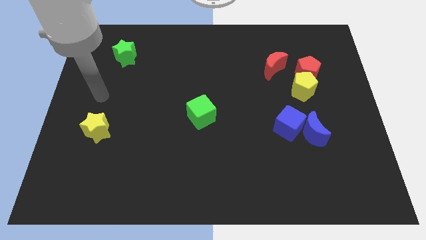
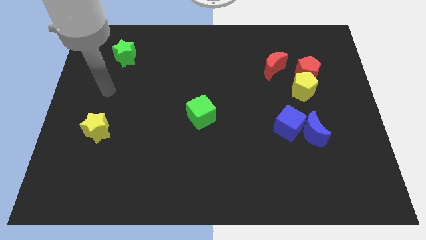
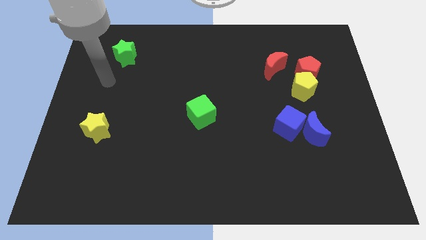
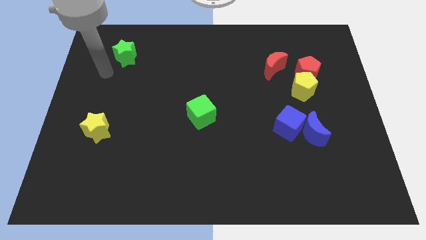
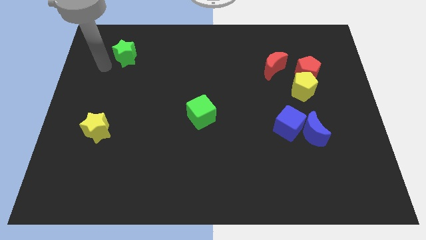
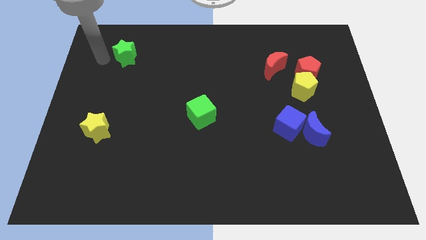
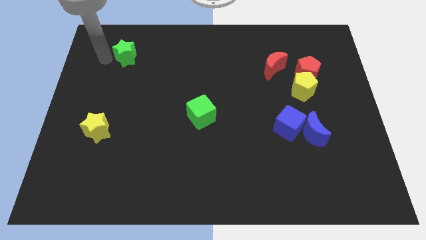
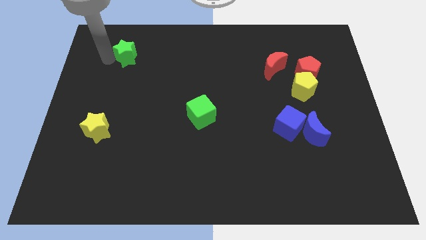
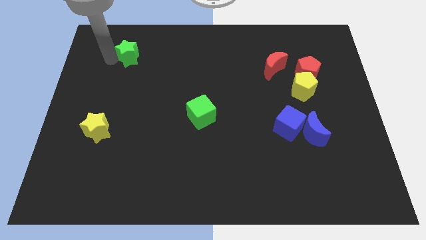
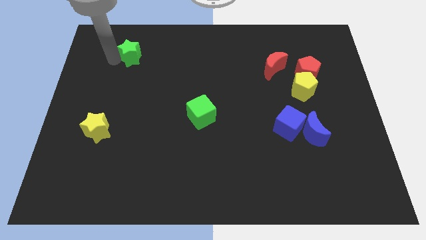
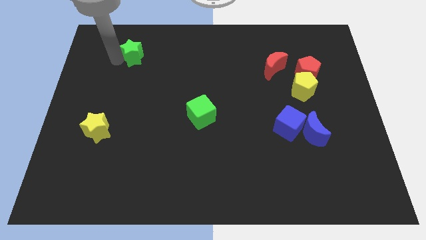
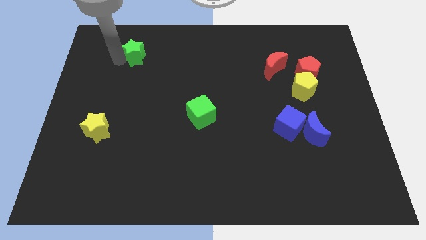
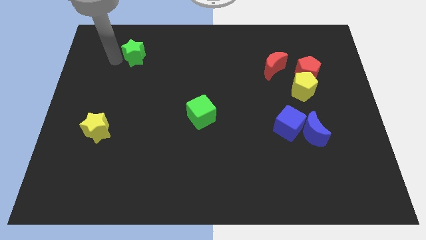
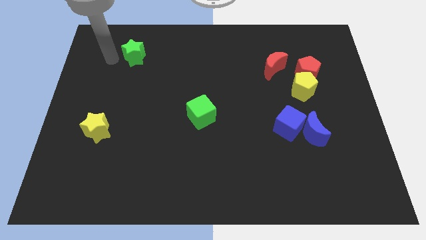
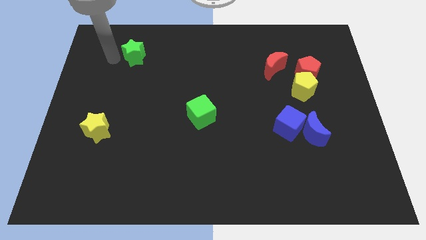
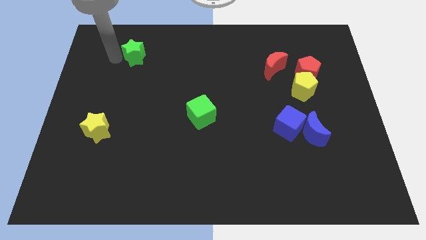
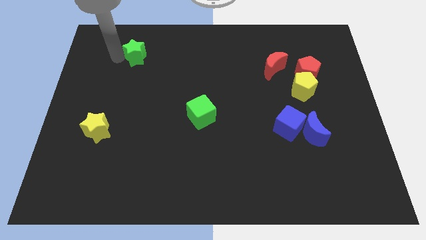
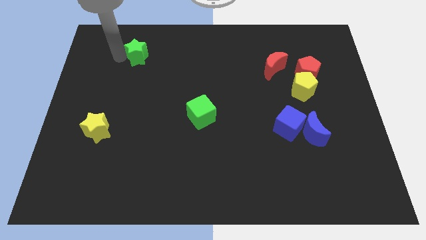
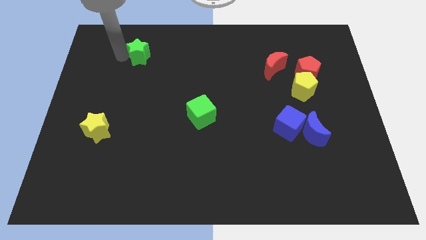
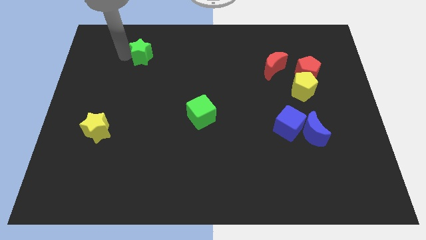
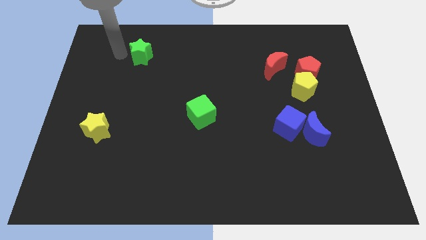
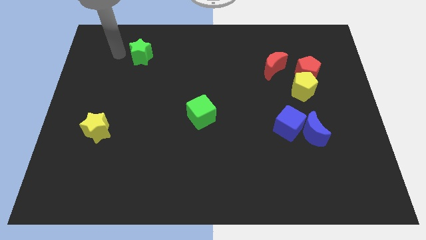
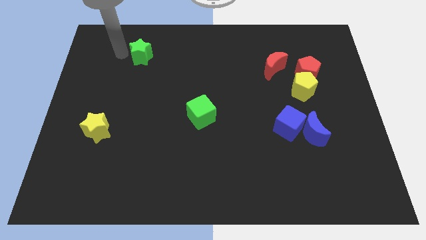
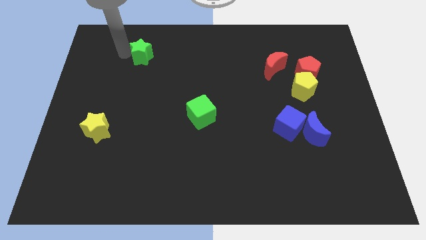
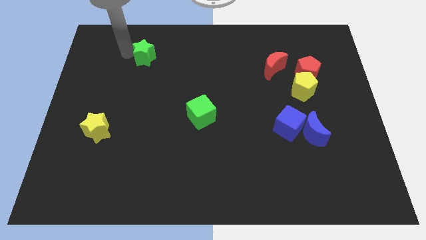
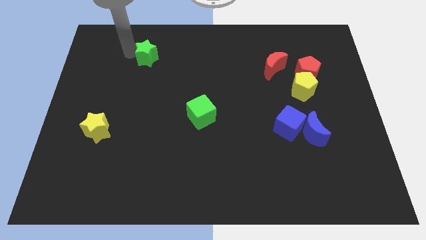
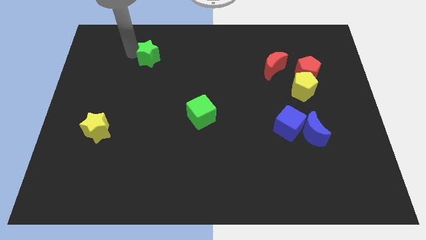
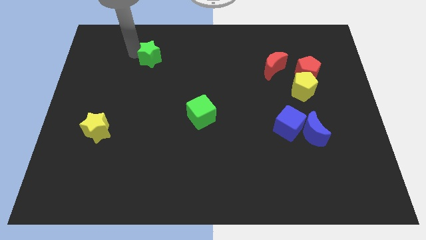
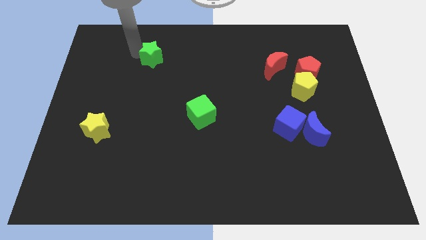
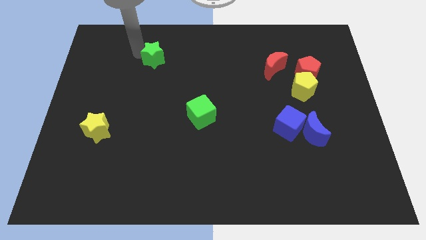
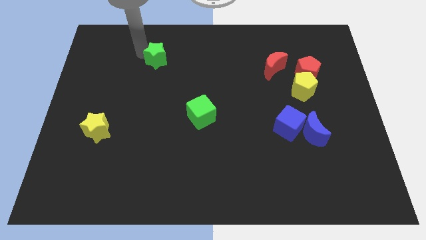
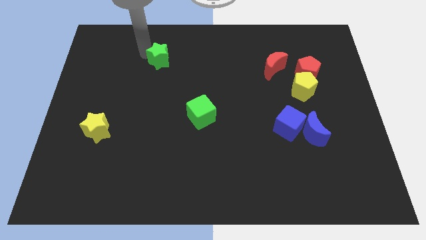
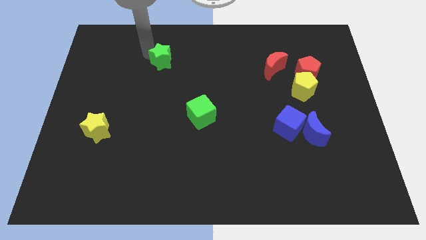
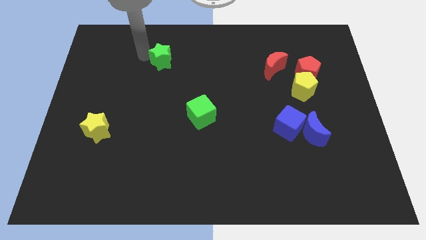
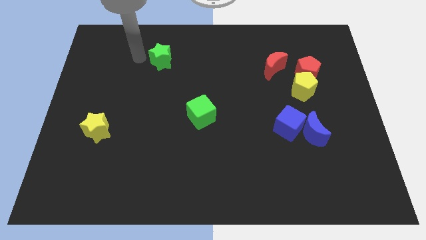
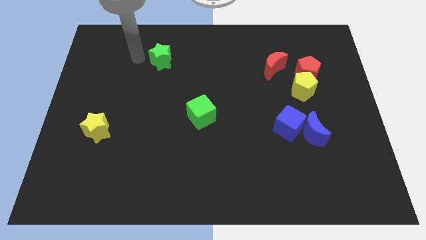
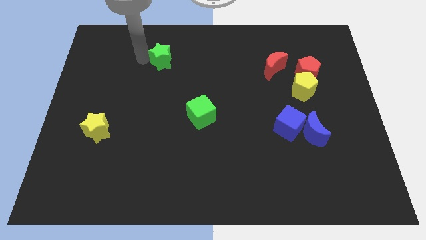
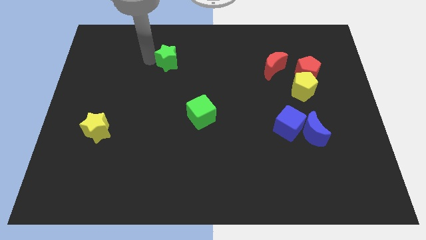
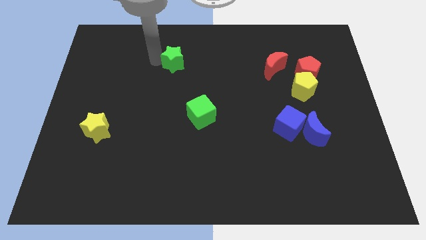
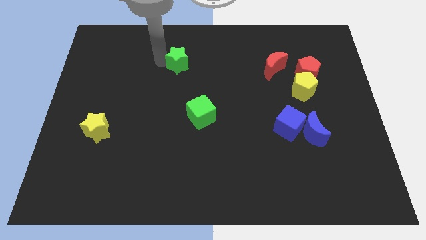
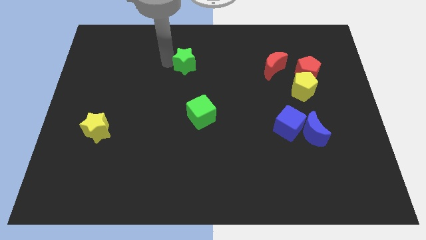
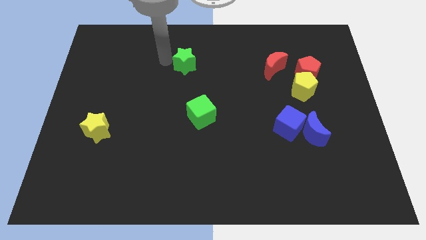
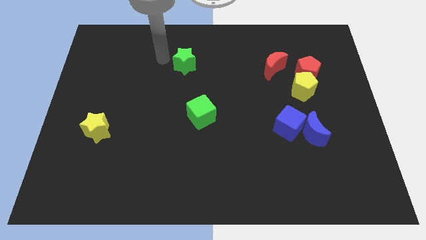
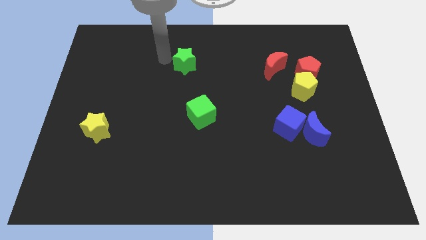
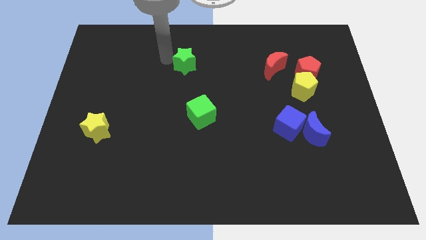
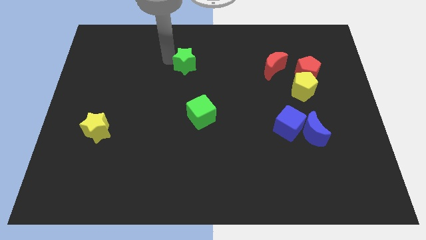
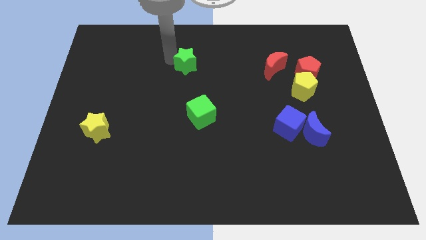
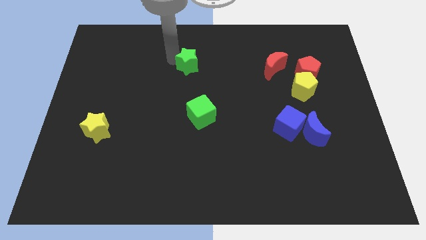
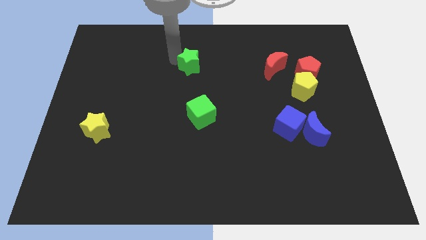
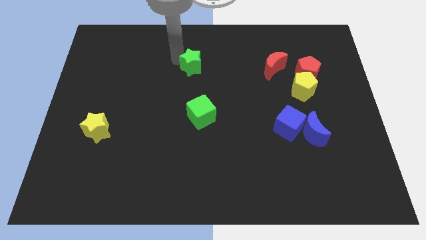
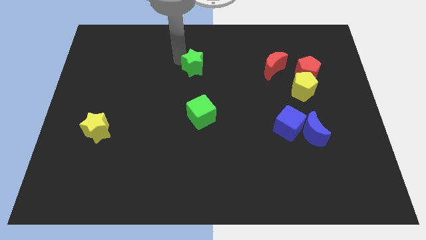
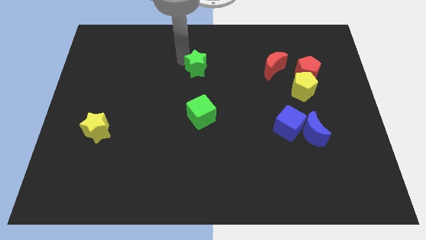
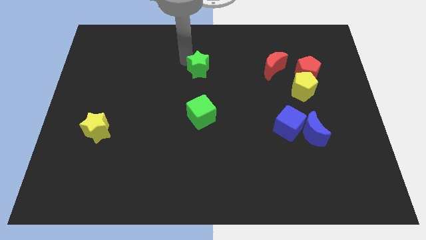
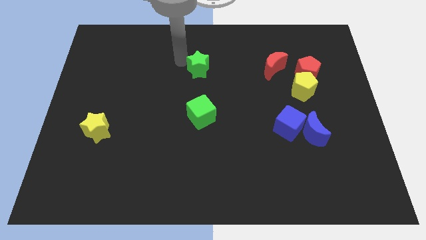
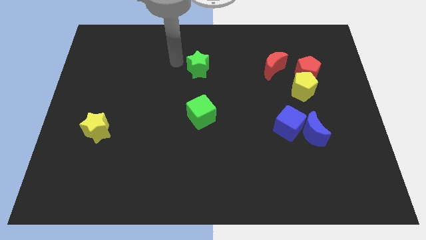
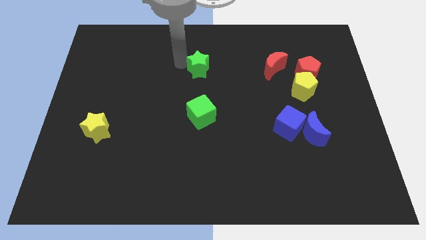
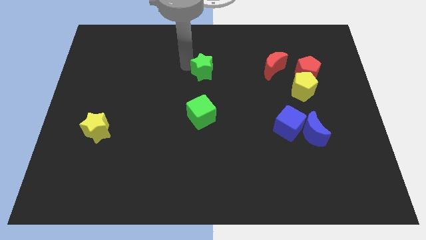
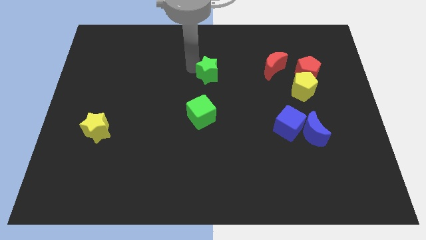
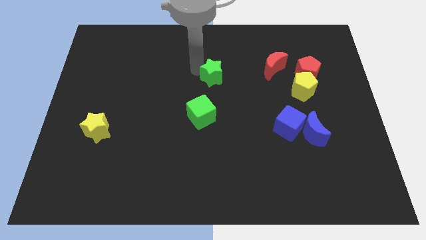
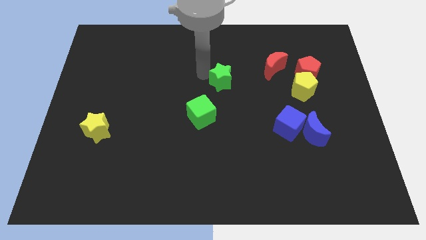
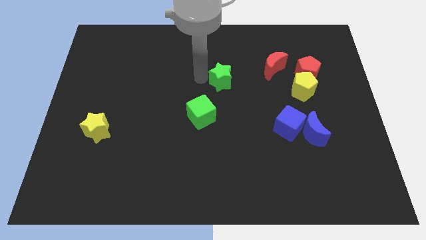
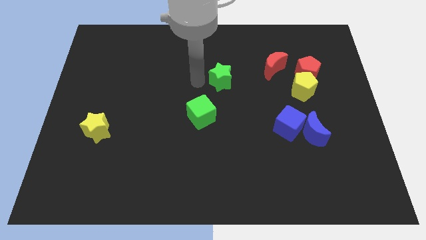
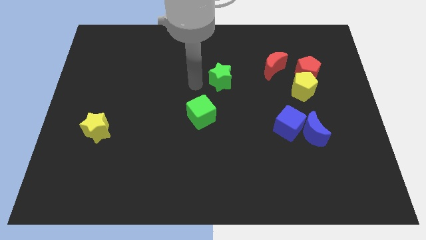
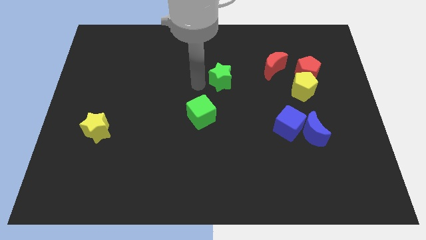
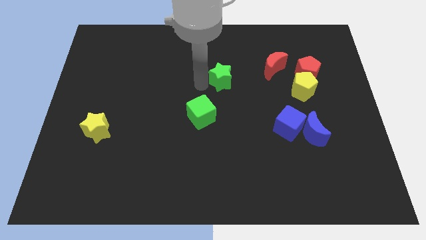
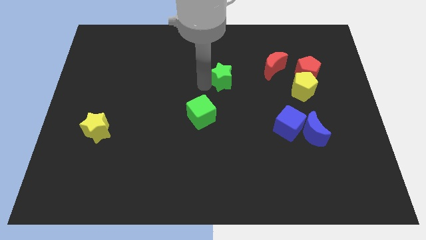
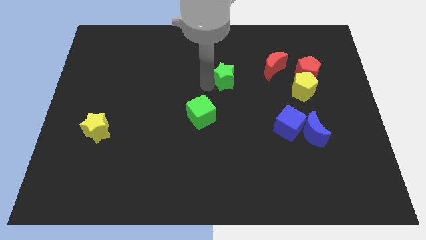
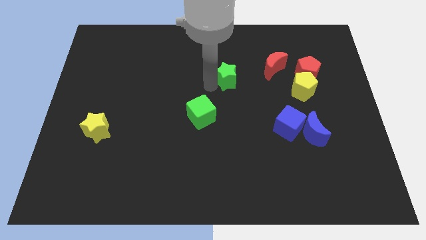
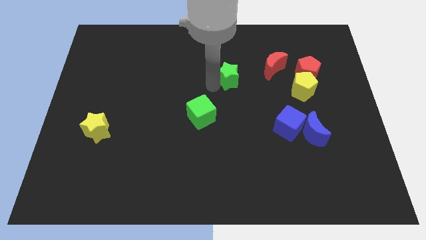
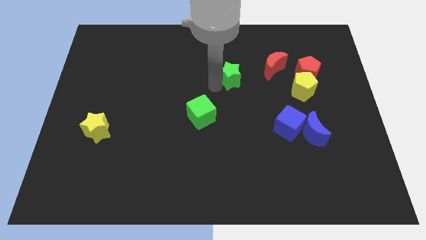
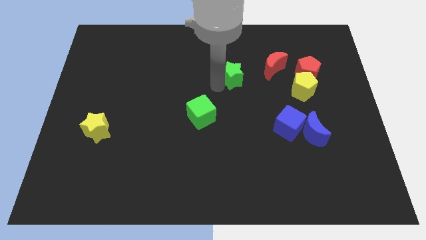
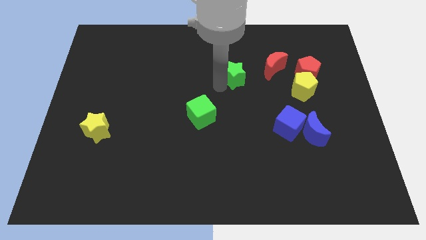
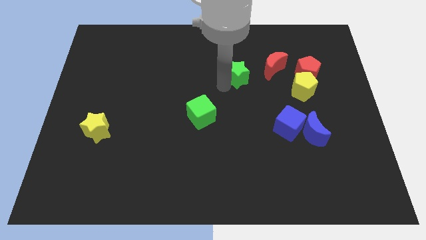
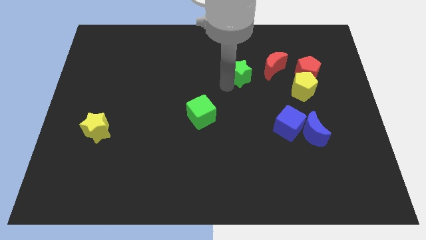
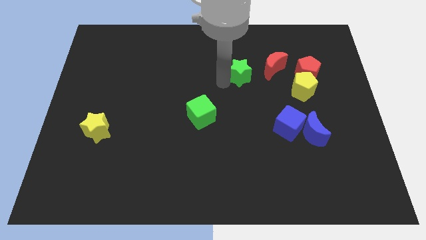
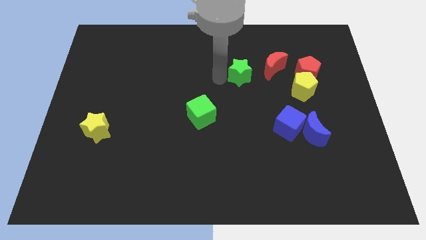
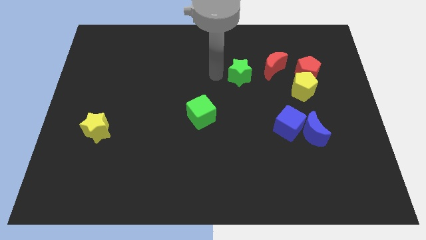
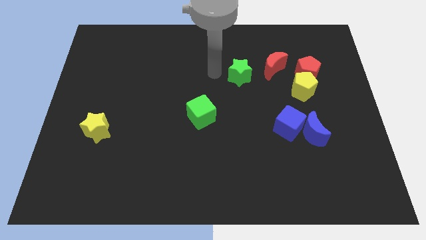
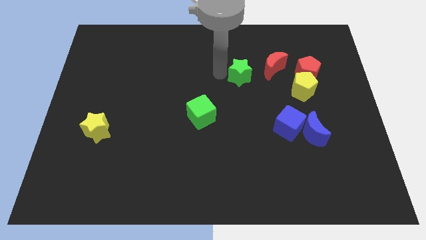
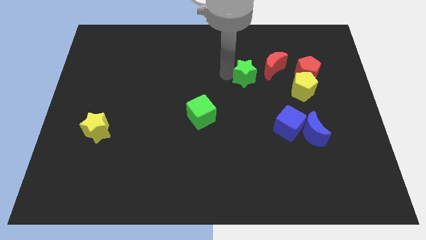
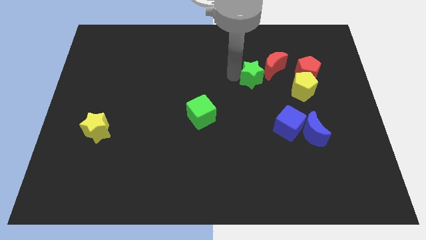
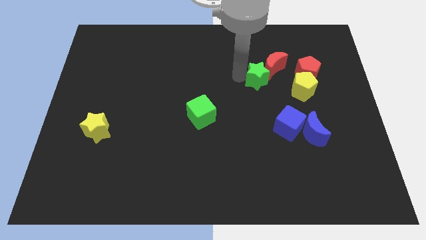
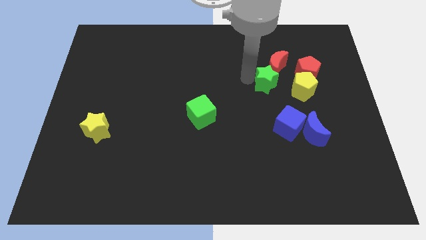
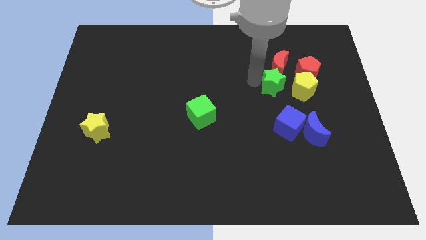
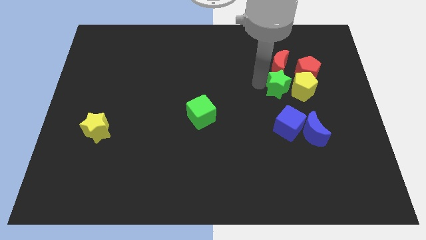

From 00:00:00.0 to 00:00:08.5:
push the green star to the yellow pentagon
